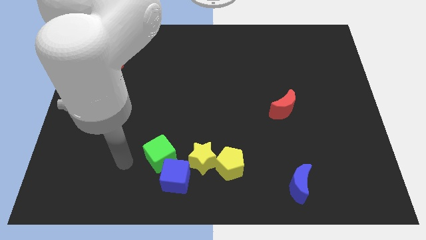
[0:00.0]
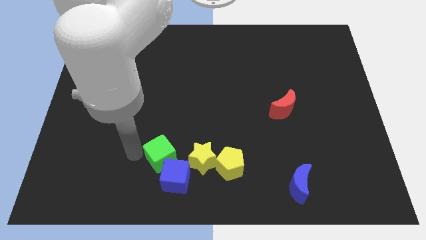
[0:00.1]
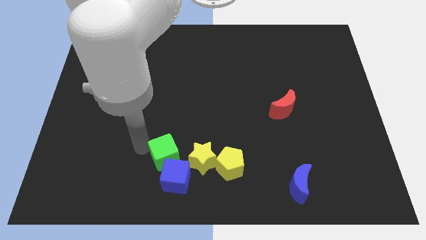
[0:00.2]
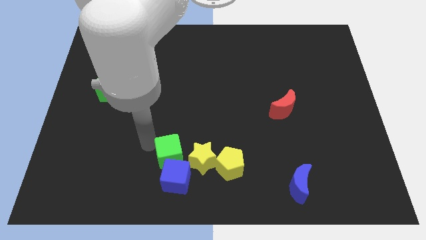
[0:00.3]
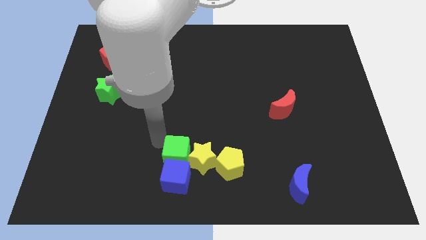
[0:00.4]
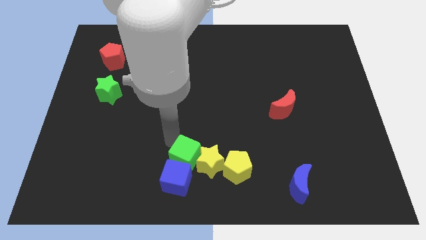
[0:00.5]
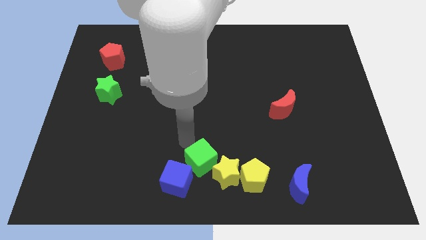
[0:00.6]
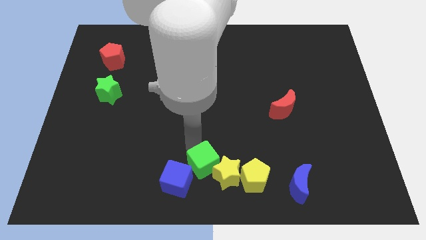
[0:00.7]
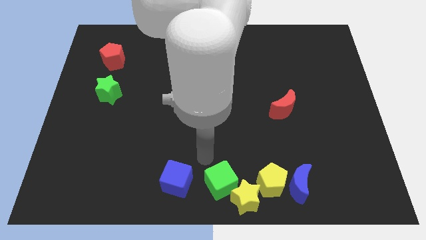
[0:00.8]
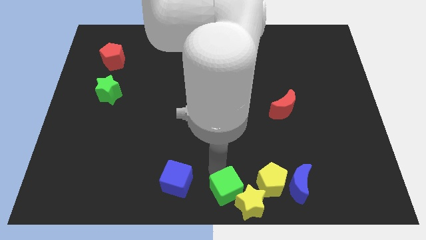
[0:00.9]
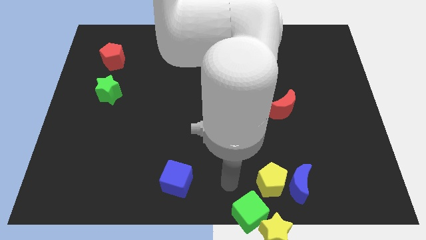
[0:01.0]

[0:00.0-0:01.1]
pull the yellow pentagon apart from the yellow star

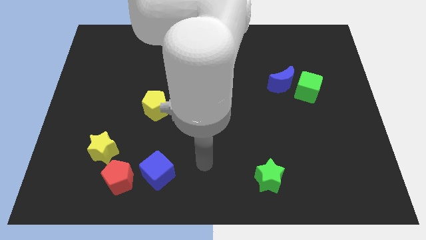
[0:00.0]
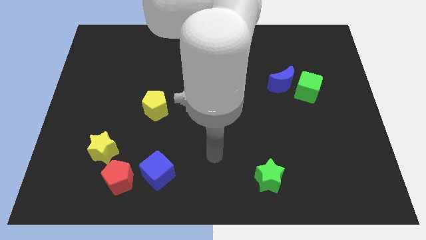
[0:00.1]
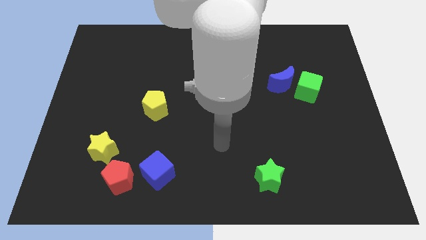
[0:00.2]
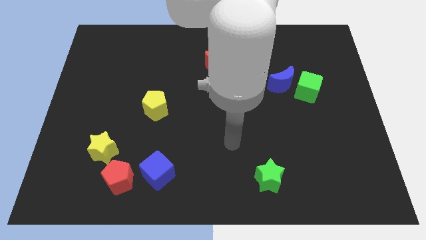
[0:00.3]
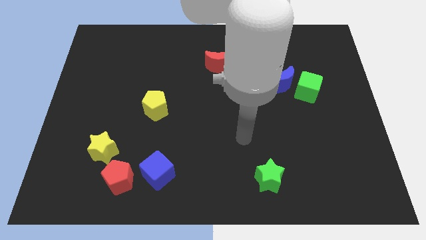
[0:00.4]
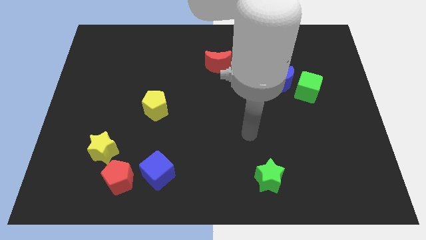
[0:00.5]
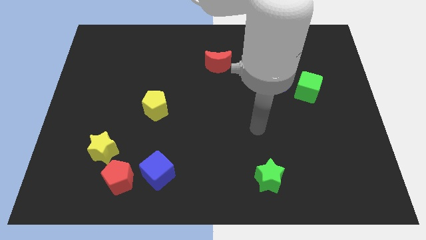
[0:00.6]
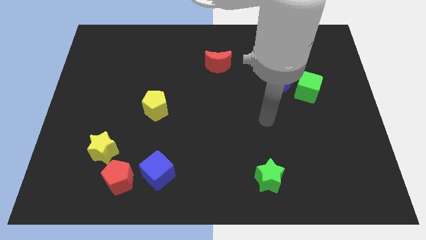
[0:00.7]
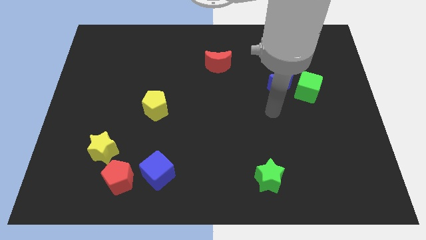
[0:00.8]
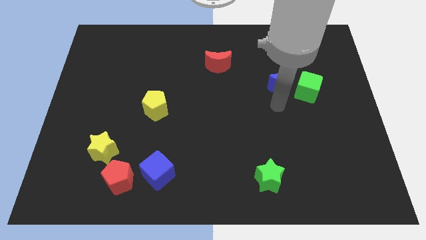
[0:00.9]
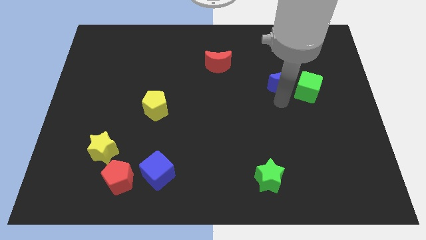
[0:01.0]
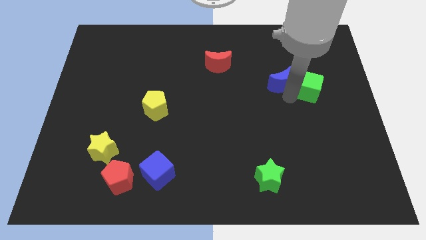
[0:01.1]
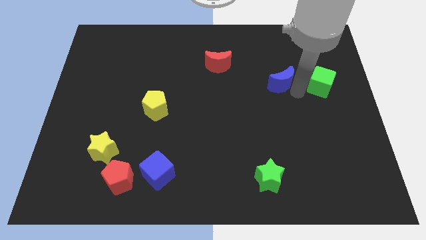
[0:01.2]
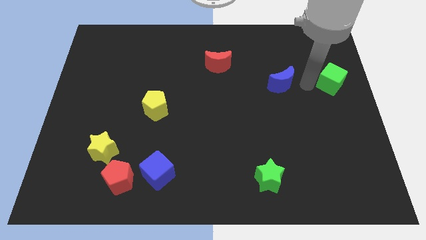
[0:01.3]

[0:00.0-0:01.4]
separate the blue moon from the green cube

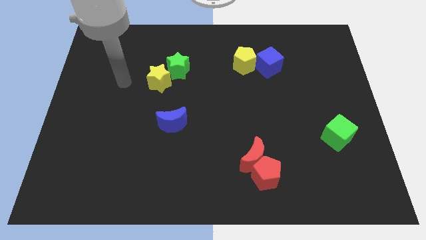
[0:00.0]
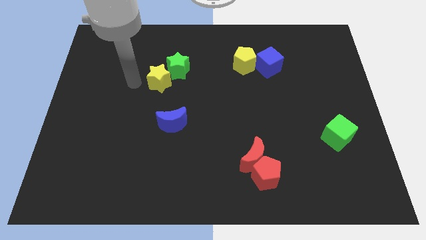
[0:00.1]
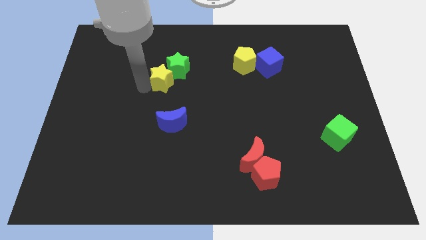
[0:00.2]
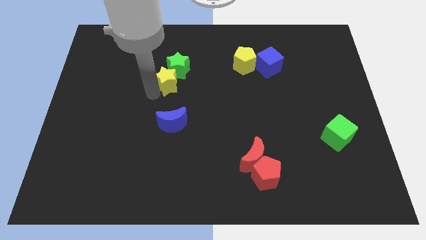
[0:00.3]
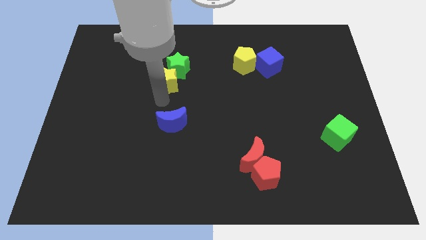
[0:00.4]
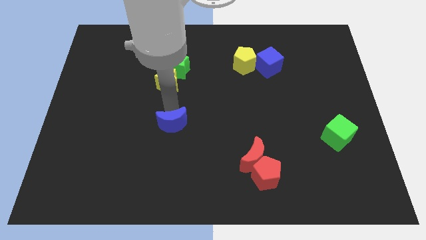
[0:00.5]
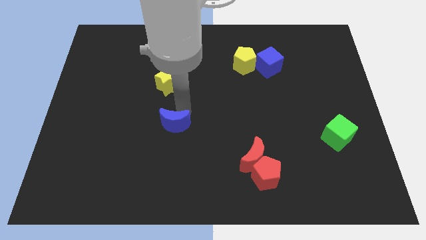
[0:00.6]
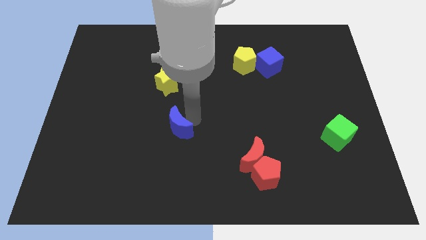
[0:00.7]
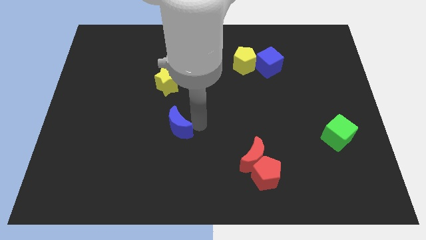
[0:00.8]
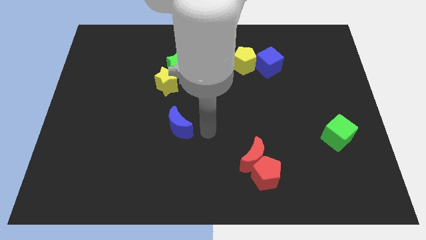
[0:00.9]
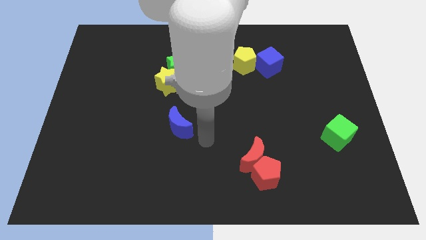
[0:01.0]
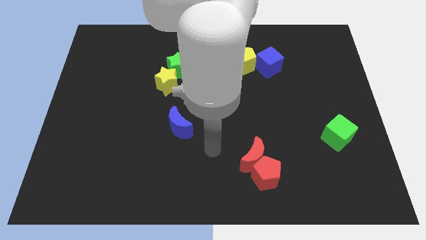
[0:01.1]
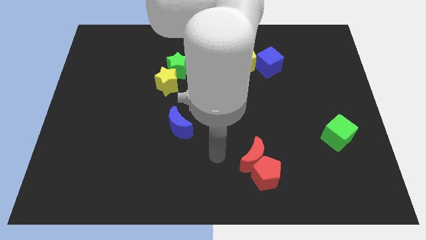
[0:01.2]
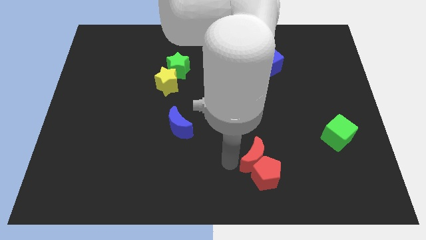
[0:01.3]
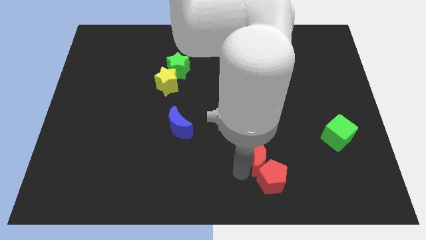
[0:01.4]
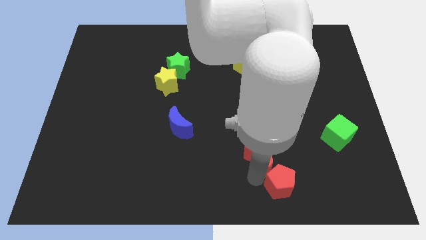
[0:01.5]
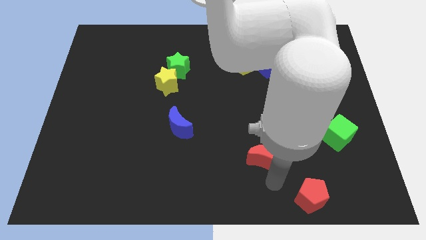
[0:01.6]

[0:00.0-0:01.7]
separate the red moon from the red pentagon

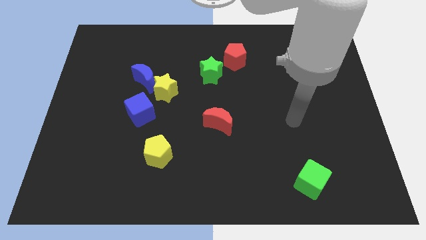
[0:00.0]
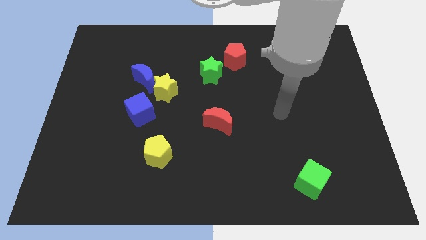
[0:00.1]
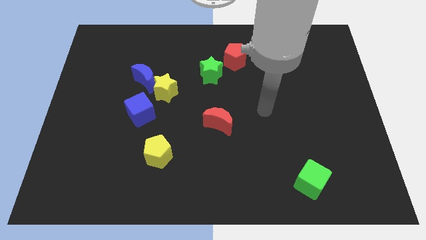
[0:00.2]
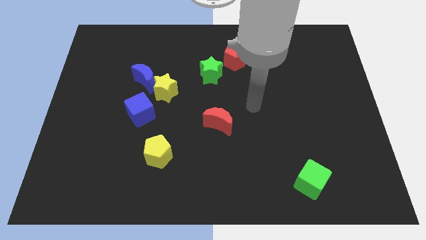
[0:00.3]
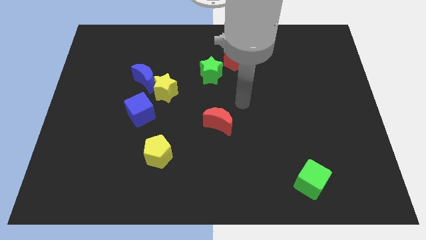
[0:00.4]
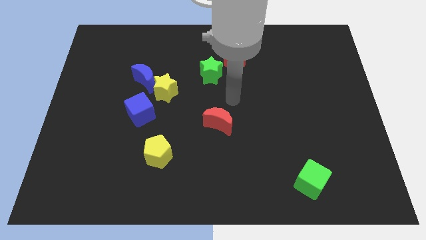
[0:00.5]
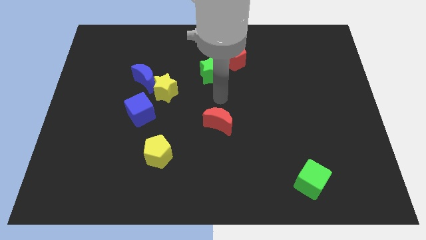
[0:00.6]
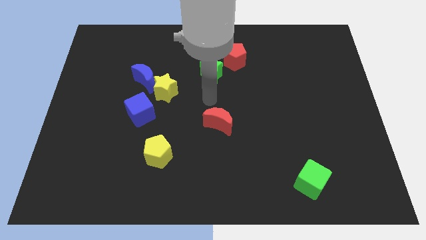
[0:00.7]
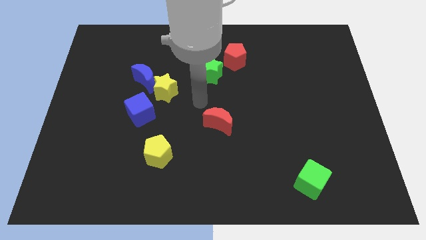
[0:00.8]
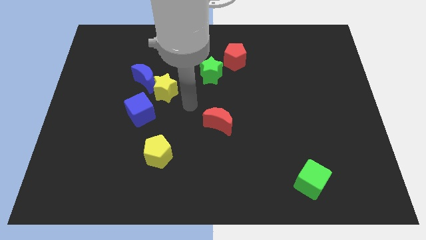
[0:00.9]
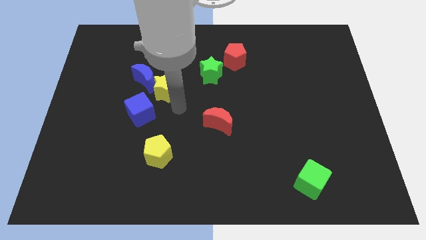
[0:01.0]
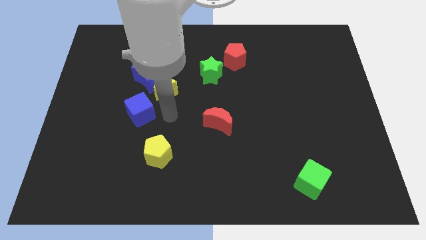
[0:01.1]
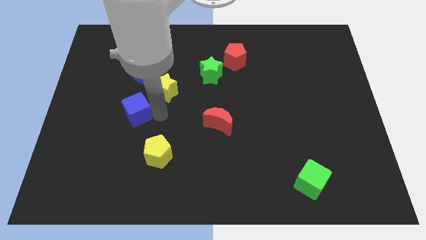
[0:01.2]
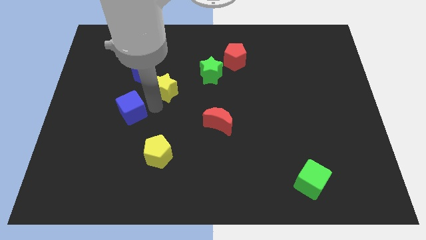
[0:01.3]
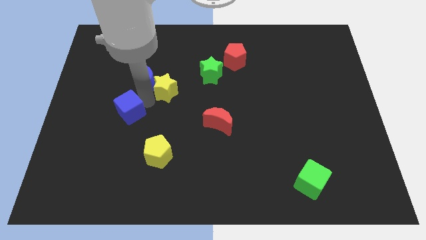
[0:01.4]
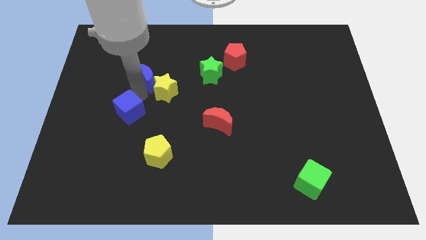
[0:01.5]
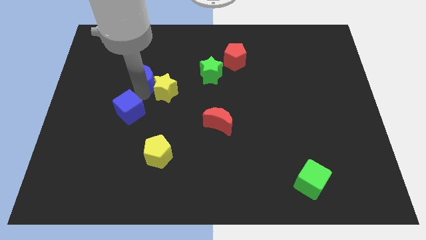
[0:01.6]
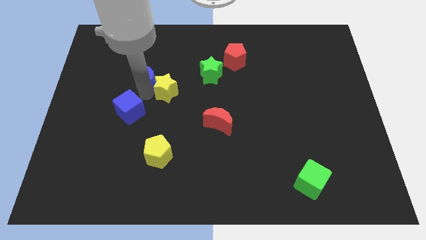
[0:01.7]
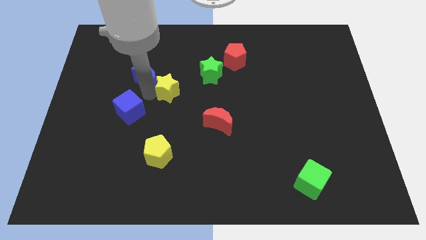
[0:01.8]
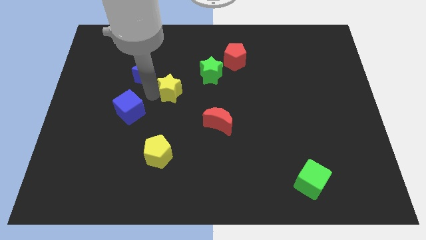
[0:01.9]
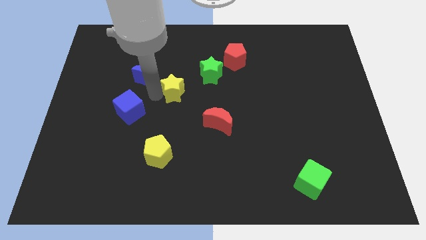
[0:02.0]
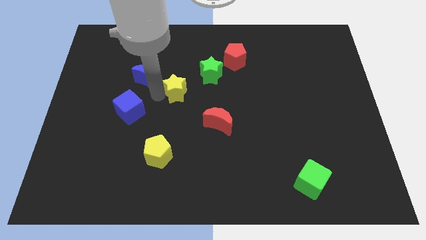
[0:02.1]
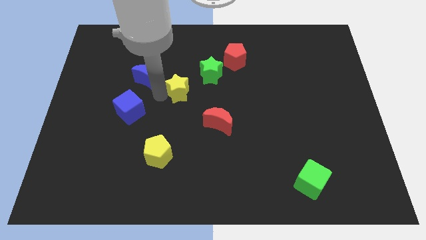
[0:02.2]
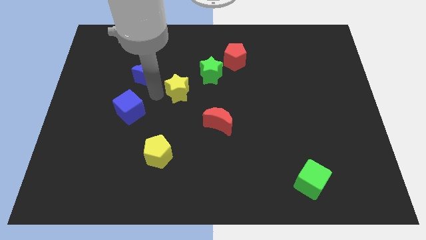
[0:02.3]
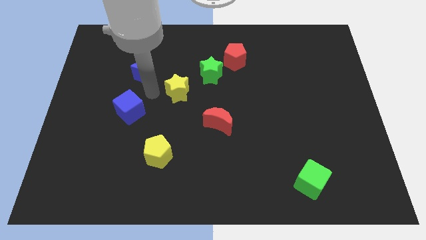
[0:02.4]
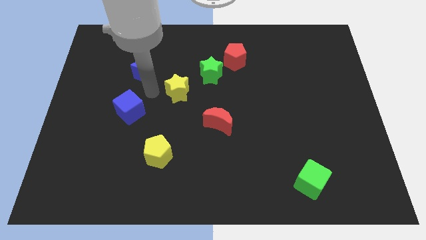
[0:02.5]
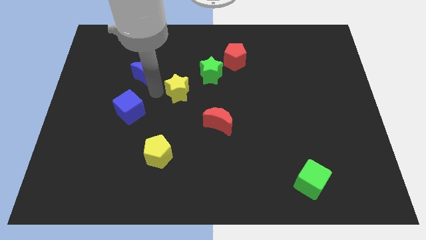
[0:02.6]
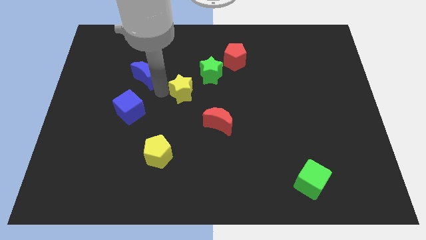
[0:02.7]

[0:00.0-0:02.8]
move the yellow star away from the blue moon and blue cube

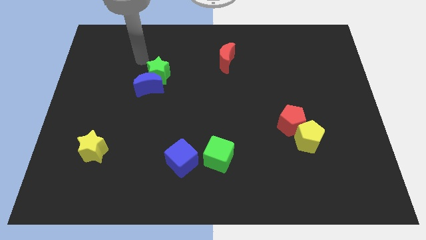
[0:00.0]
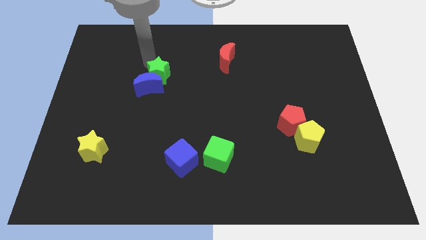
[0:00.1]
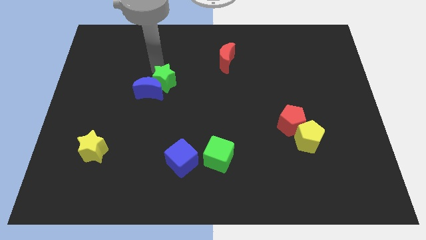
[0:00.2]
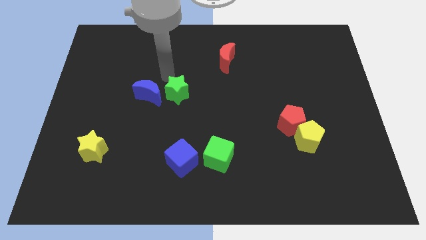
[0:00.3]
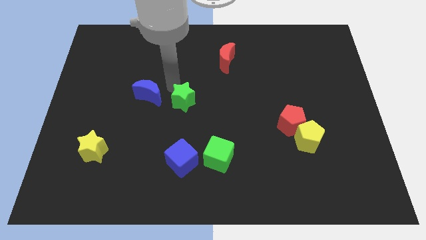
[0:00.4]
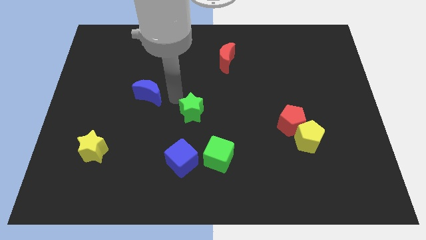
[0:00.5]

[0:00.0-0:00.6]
separate the blue moon from the green star

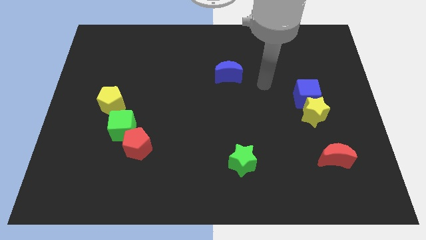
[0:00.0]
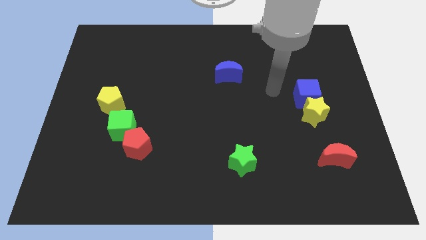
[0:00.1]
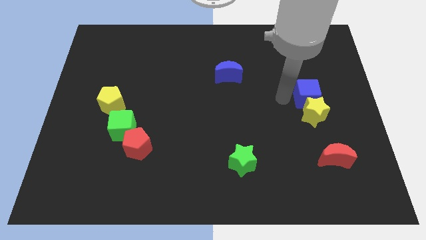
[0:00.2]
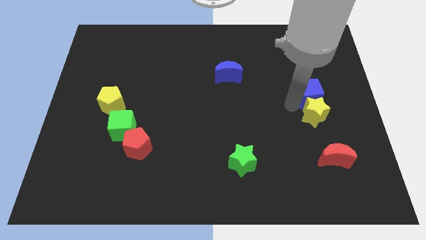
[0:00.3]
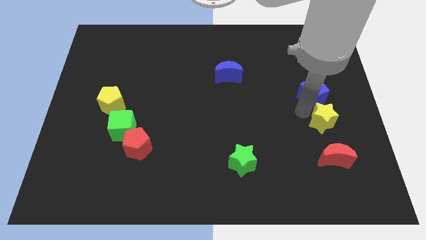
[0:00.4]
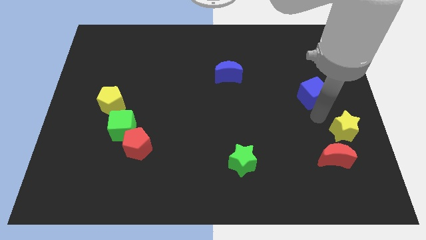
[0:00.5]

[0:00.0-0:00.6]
move the blue cube away from the yellow star

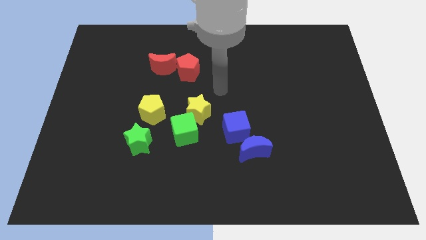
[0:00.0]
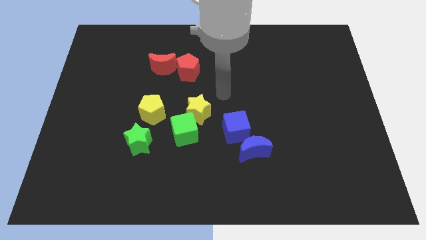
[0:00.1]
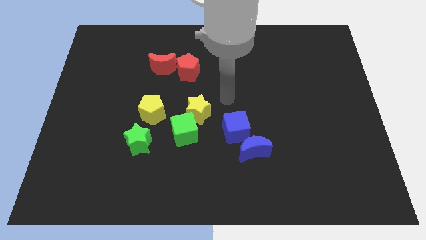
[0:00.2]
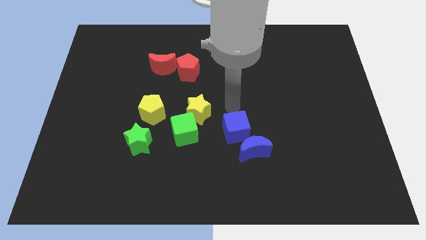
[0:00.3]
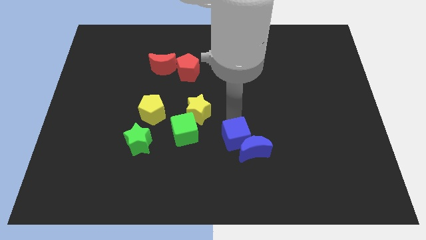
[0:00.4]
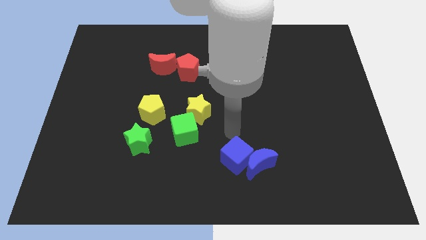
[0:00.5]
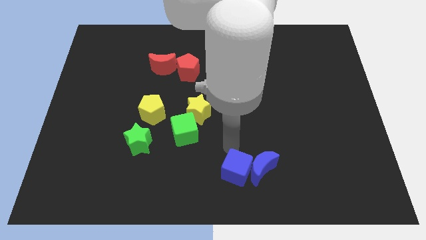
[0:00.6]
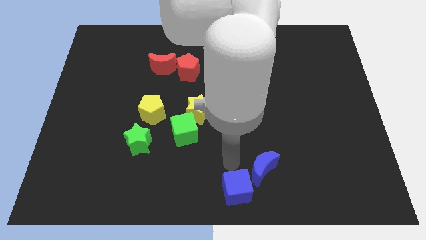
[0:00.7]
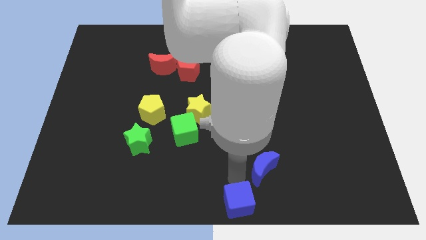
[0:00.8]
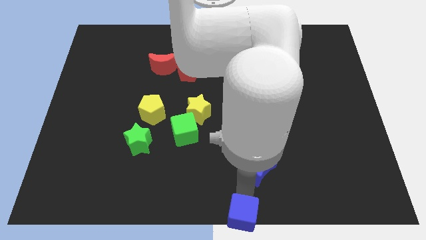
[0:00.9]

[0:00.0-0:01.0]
move the blue moon away from the blue cube
